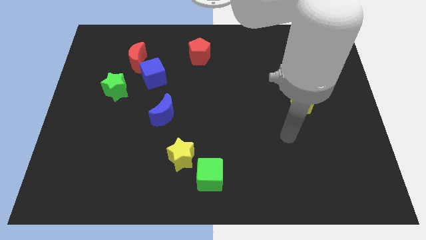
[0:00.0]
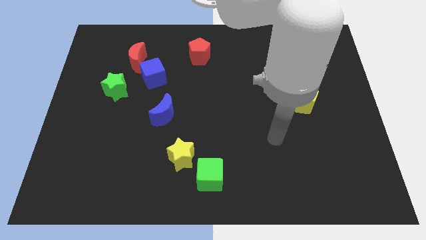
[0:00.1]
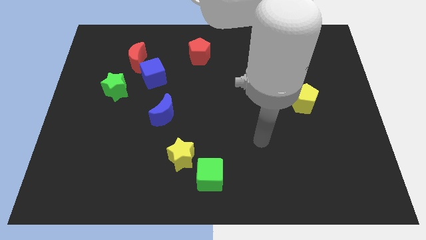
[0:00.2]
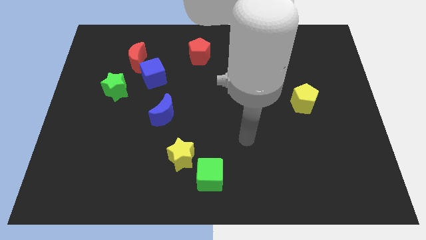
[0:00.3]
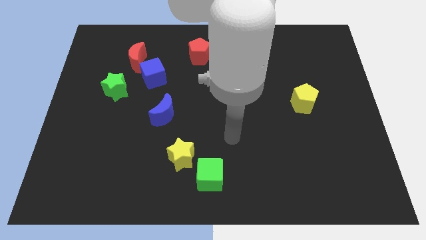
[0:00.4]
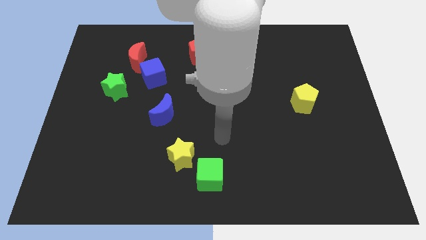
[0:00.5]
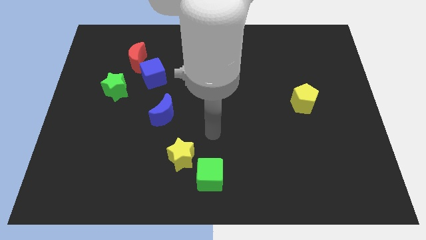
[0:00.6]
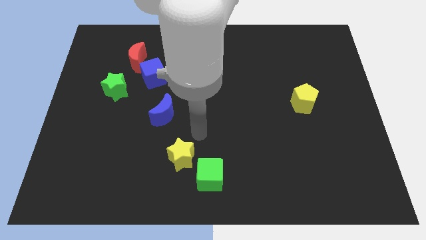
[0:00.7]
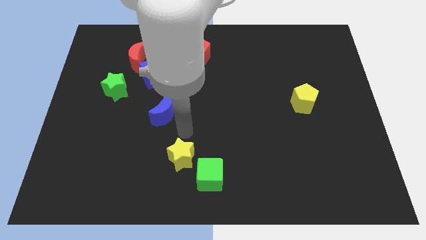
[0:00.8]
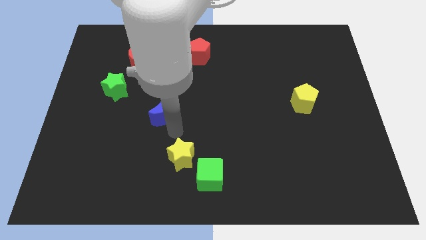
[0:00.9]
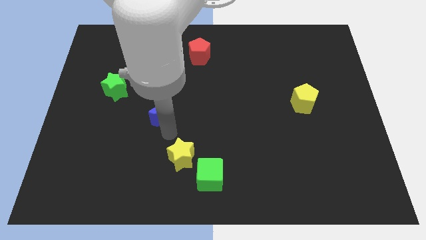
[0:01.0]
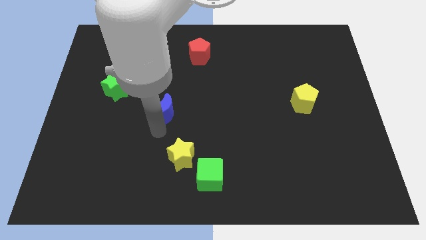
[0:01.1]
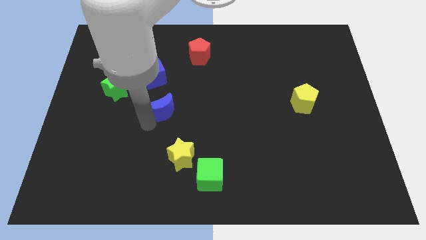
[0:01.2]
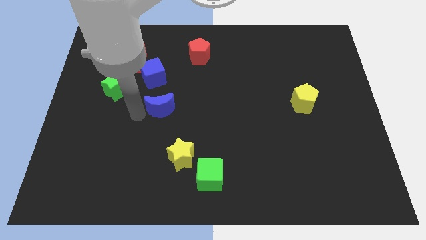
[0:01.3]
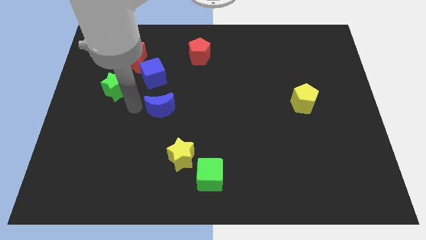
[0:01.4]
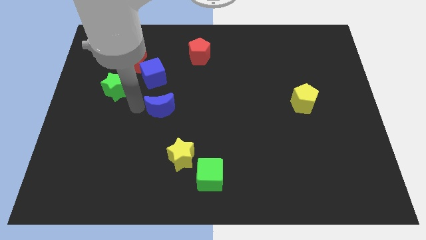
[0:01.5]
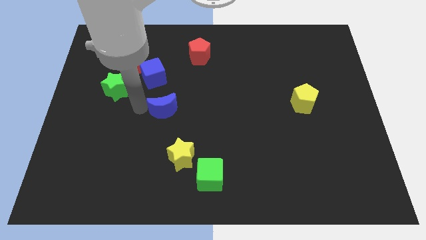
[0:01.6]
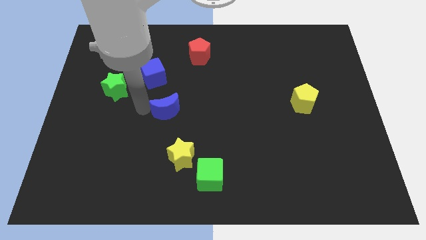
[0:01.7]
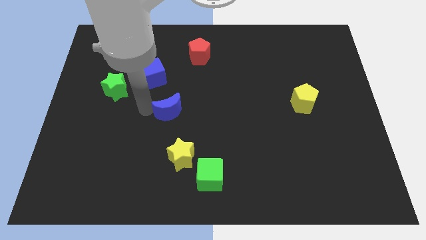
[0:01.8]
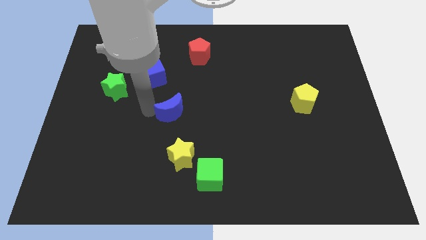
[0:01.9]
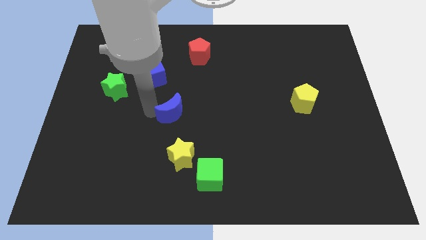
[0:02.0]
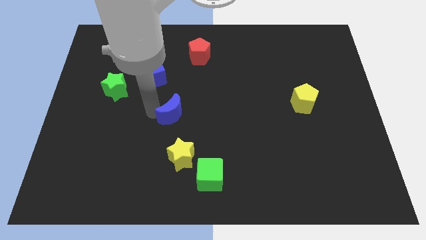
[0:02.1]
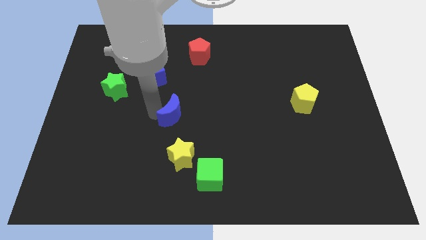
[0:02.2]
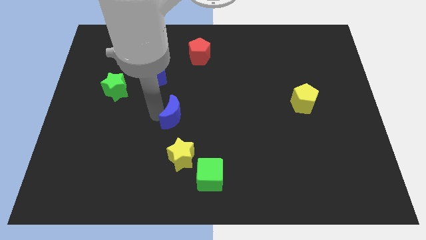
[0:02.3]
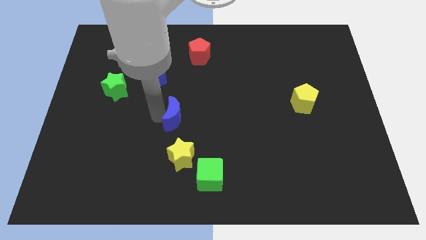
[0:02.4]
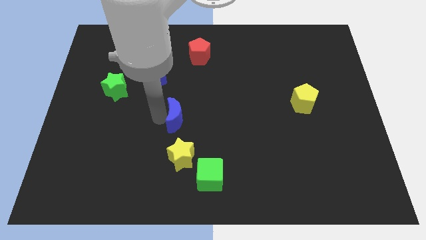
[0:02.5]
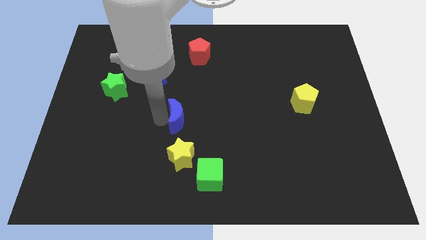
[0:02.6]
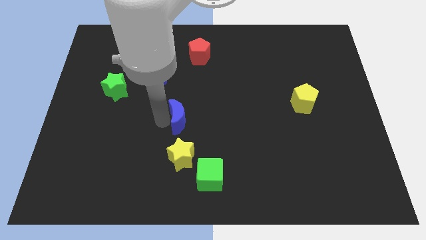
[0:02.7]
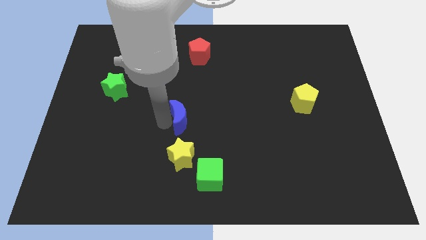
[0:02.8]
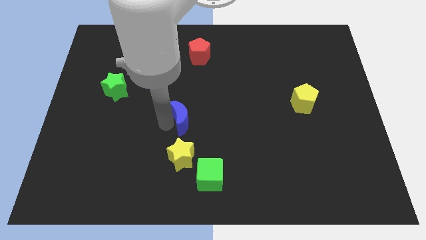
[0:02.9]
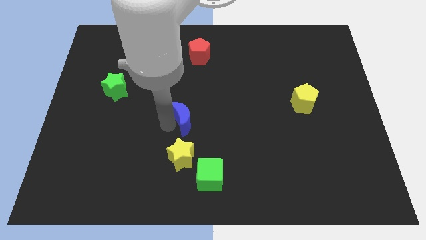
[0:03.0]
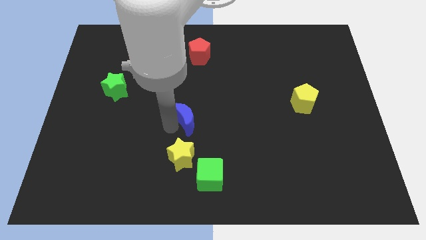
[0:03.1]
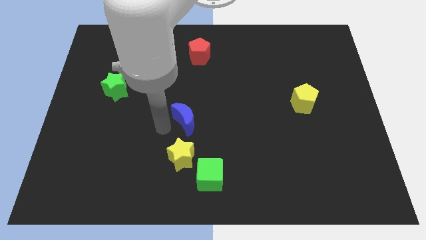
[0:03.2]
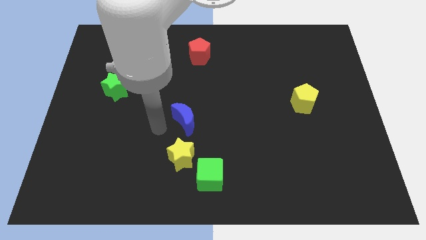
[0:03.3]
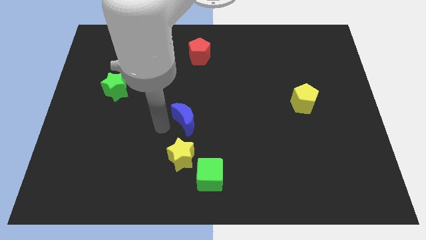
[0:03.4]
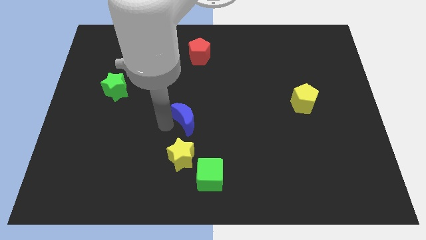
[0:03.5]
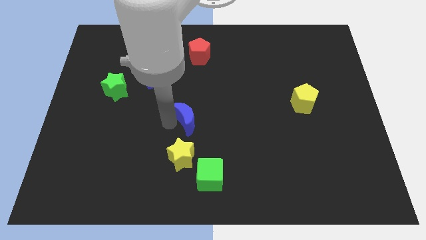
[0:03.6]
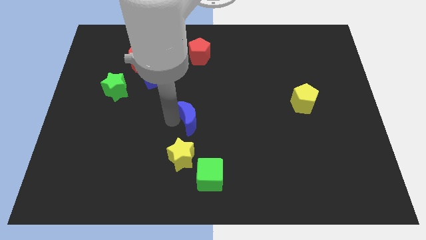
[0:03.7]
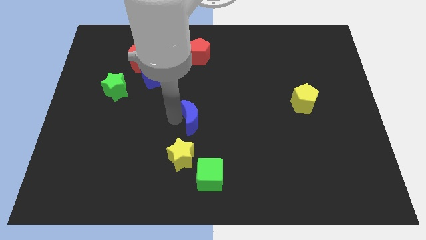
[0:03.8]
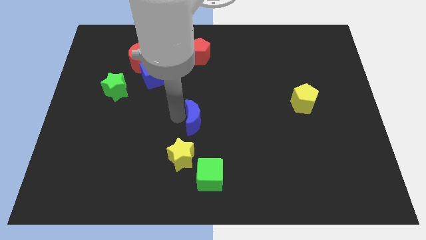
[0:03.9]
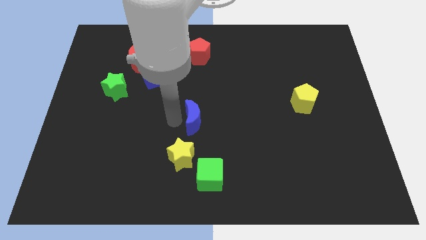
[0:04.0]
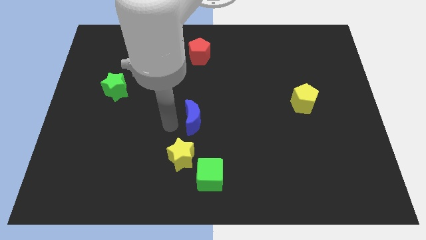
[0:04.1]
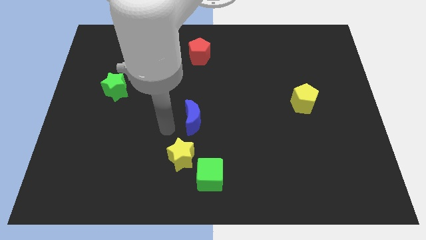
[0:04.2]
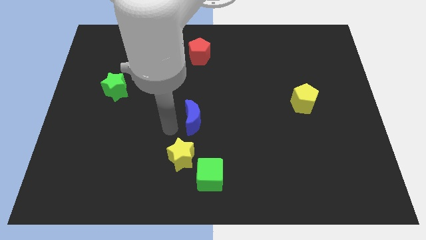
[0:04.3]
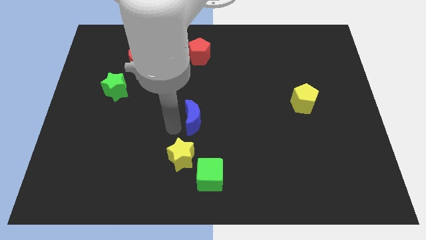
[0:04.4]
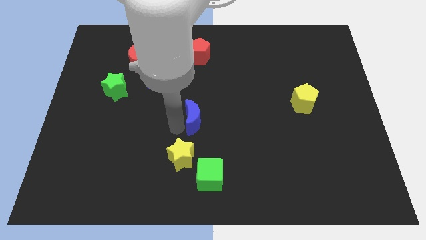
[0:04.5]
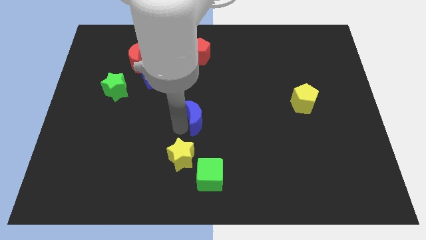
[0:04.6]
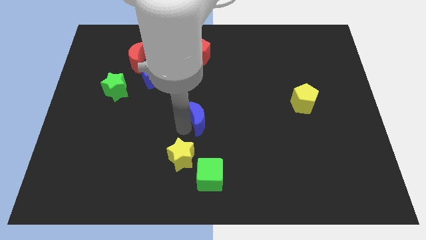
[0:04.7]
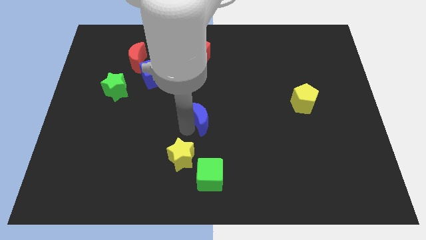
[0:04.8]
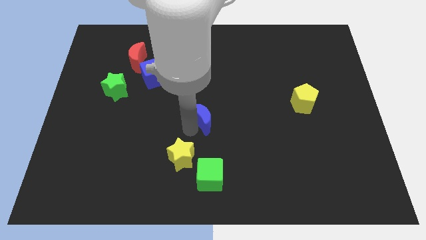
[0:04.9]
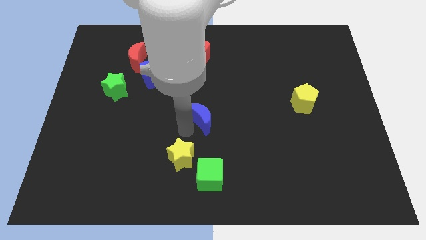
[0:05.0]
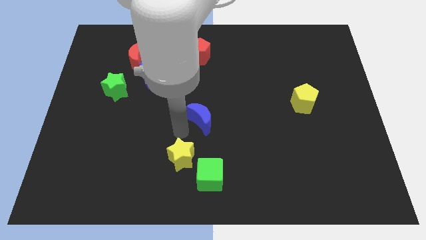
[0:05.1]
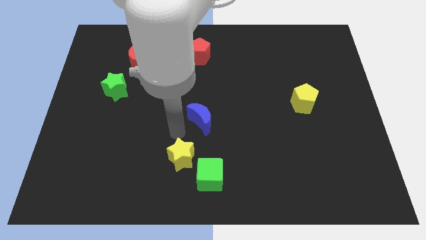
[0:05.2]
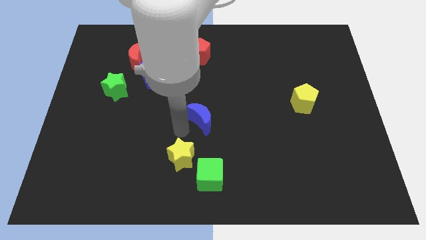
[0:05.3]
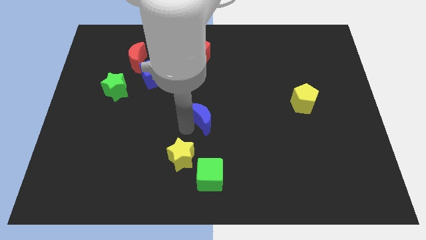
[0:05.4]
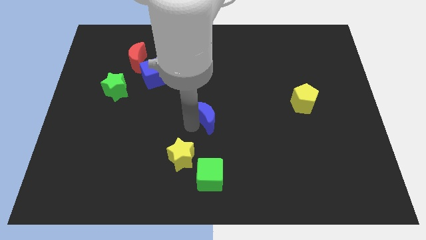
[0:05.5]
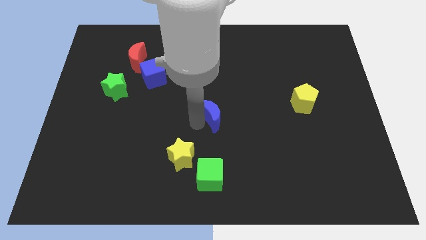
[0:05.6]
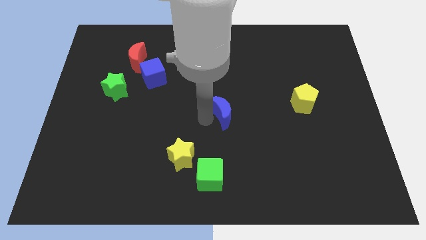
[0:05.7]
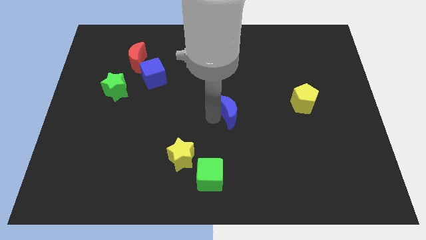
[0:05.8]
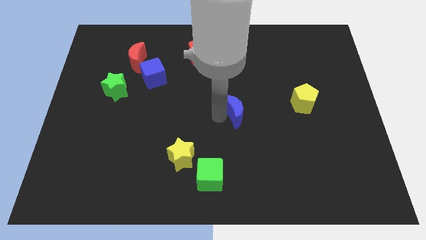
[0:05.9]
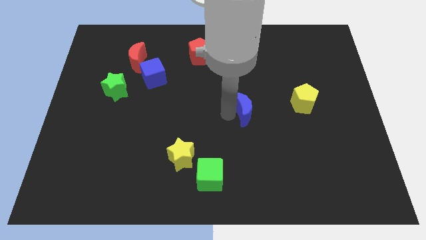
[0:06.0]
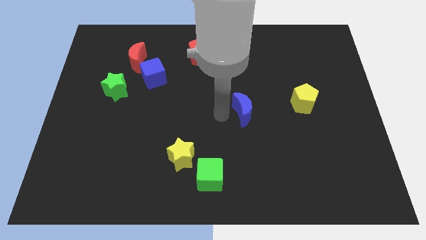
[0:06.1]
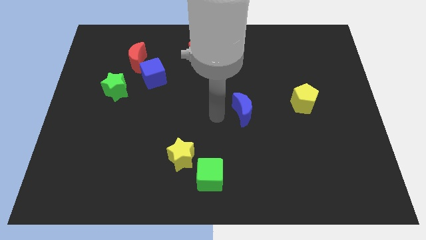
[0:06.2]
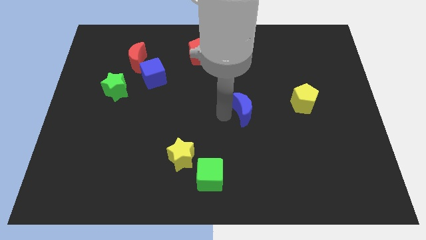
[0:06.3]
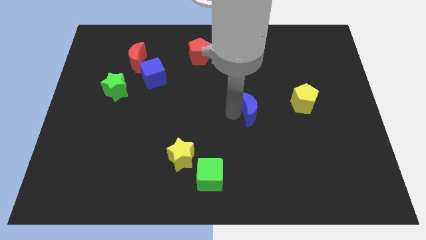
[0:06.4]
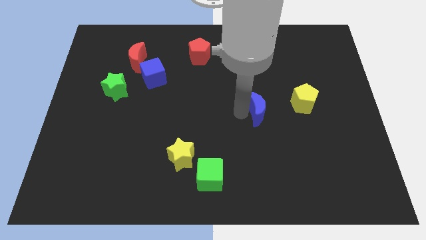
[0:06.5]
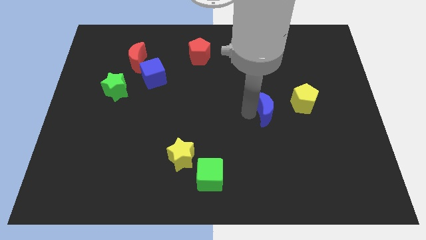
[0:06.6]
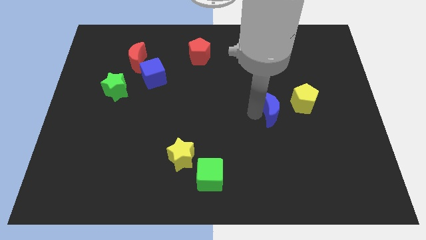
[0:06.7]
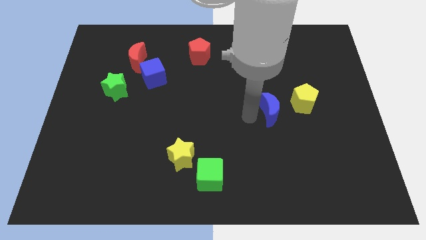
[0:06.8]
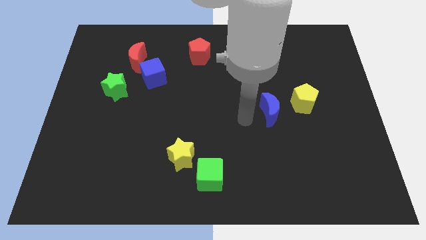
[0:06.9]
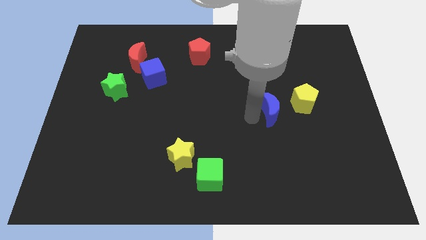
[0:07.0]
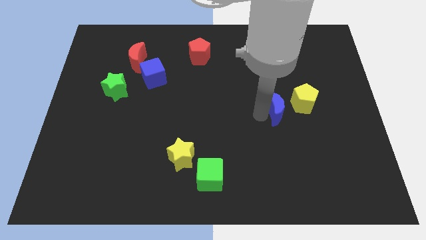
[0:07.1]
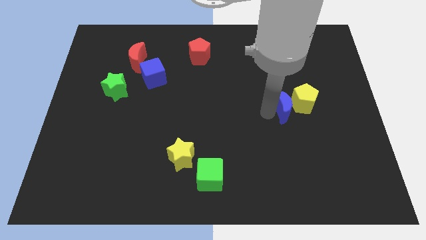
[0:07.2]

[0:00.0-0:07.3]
slide the blue moon to the yellow pentagon
